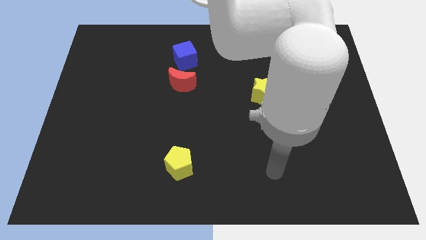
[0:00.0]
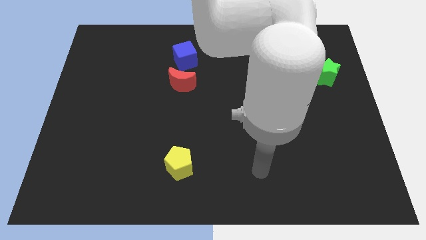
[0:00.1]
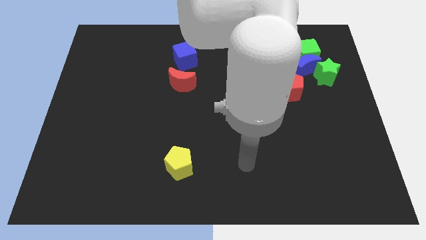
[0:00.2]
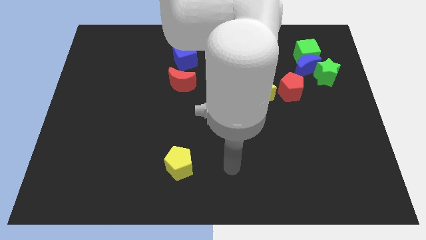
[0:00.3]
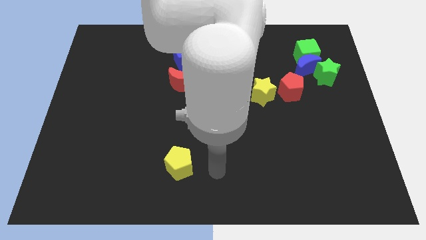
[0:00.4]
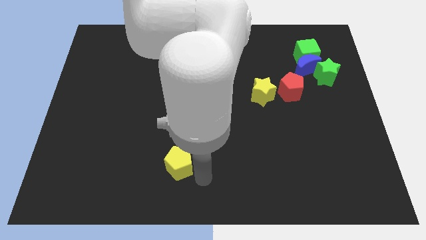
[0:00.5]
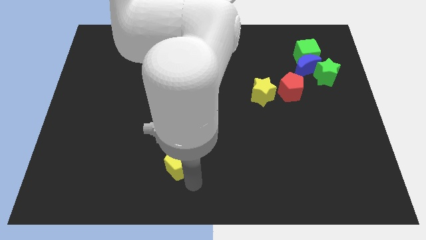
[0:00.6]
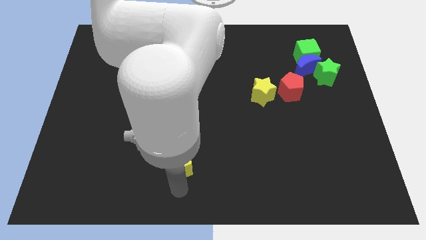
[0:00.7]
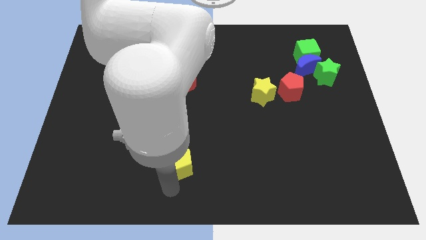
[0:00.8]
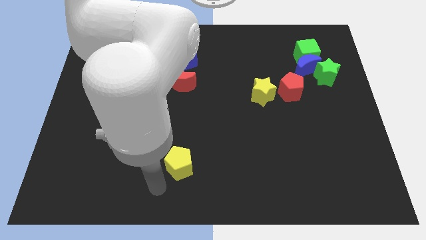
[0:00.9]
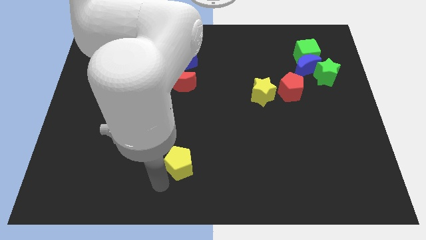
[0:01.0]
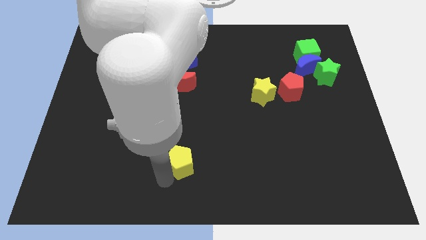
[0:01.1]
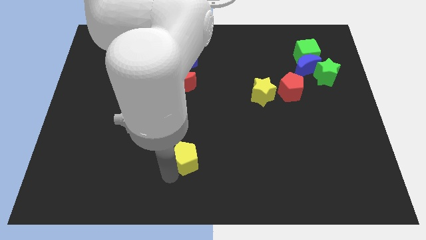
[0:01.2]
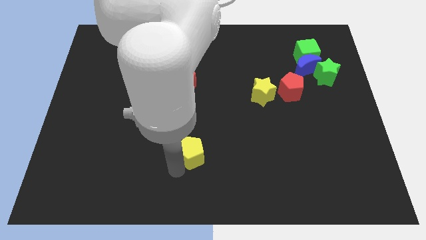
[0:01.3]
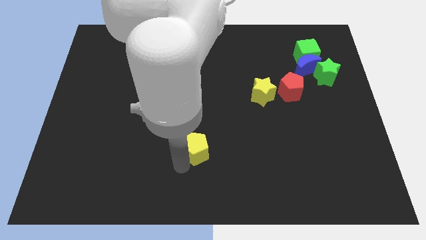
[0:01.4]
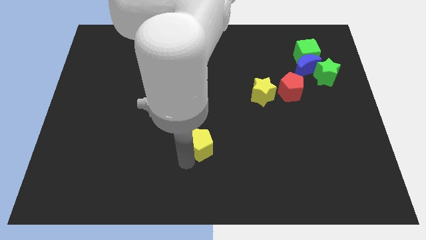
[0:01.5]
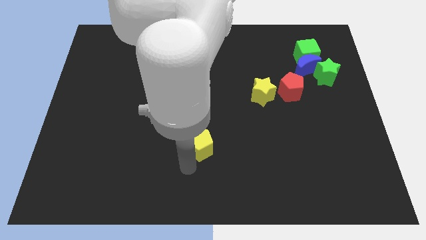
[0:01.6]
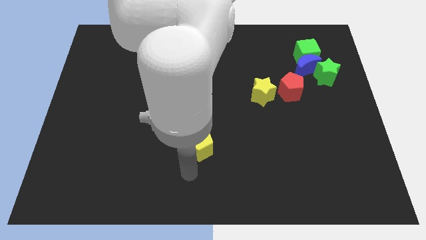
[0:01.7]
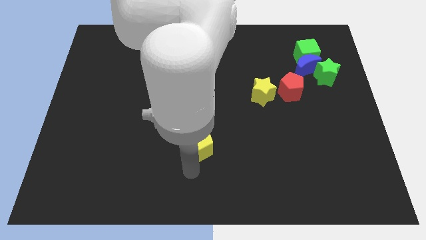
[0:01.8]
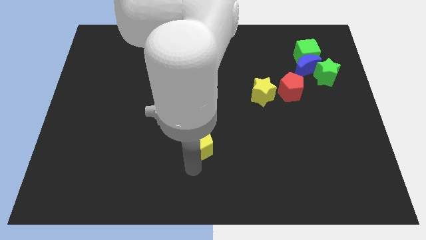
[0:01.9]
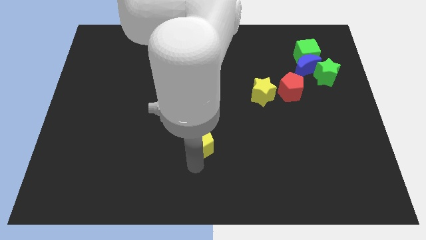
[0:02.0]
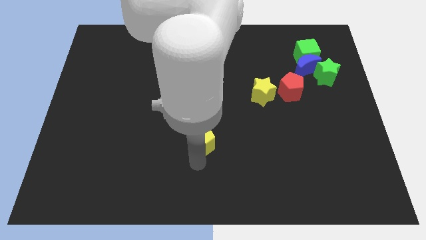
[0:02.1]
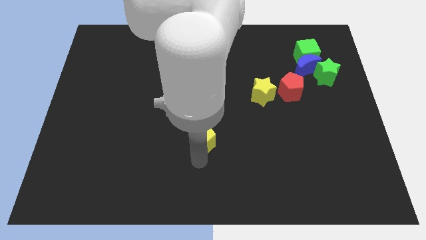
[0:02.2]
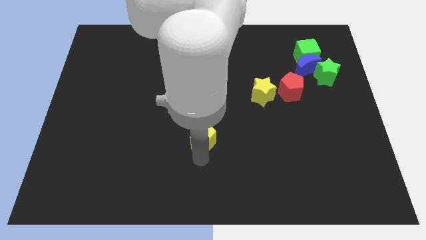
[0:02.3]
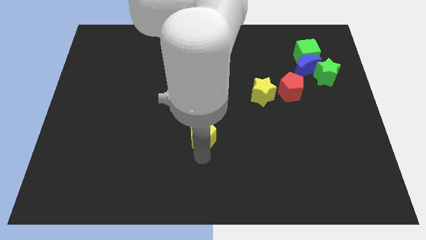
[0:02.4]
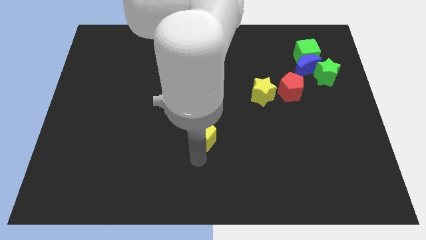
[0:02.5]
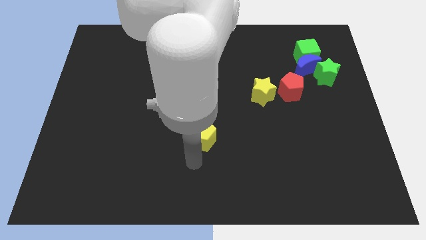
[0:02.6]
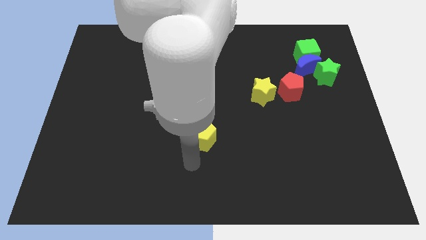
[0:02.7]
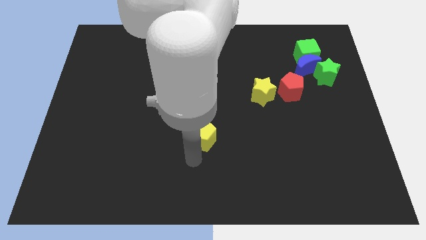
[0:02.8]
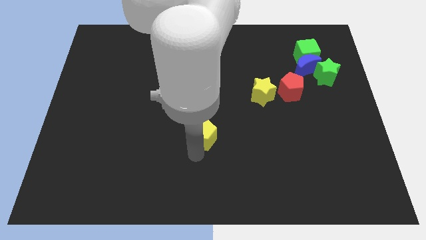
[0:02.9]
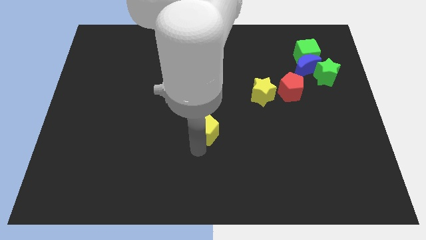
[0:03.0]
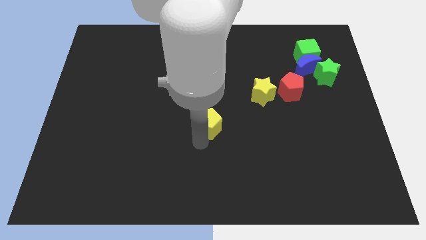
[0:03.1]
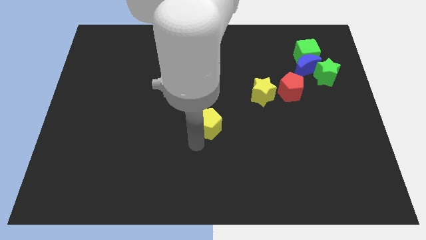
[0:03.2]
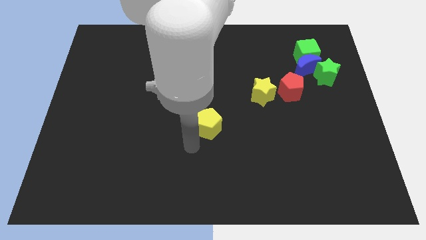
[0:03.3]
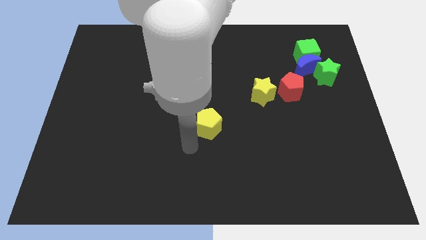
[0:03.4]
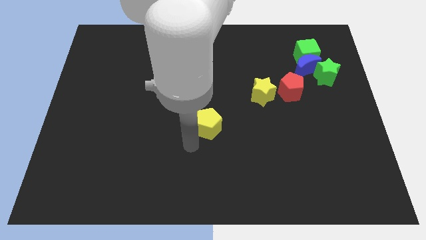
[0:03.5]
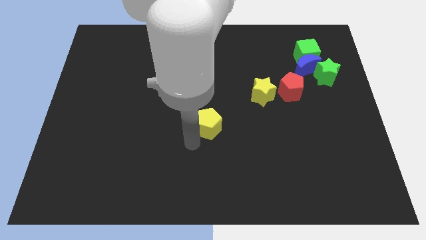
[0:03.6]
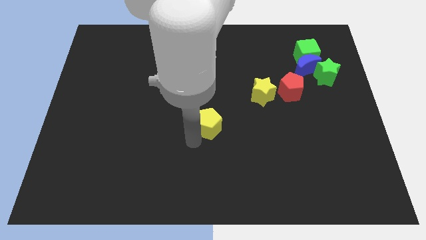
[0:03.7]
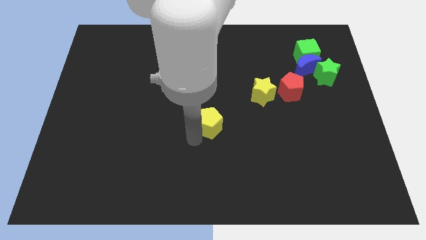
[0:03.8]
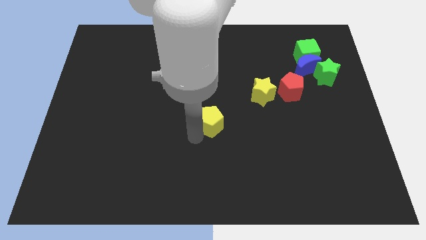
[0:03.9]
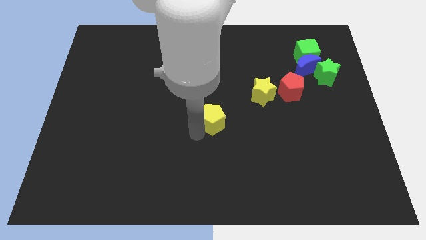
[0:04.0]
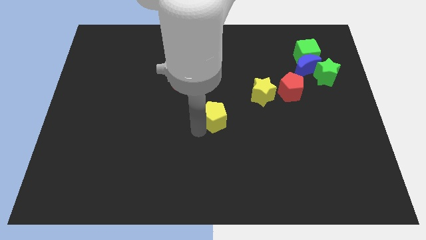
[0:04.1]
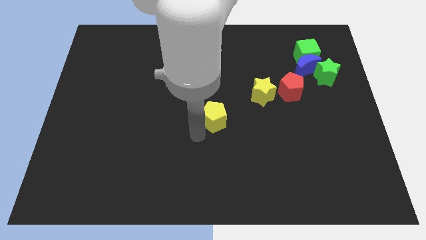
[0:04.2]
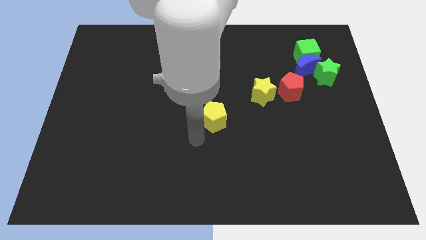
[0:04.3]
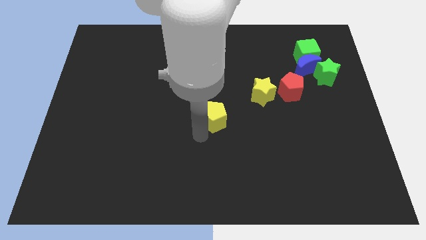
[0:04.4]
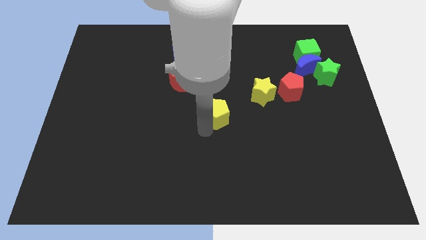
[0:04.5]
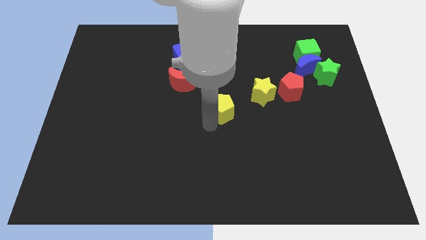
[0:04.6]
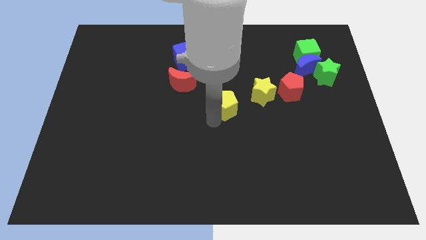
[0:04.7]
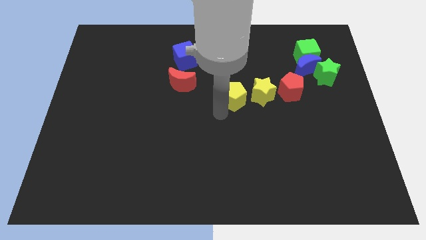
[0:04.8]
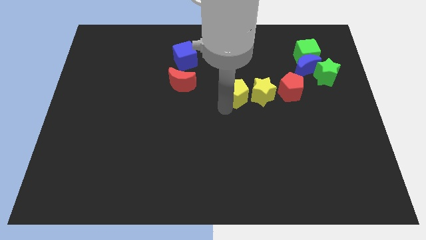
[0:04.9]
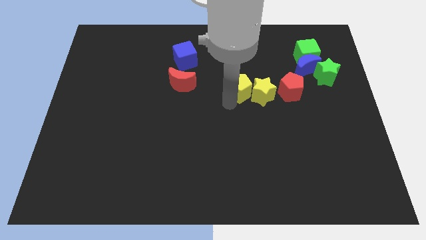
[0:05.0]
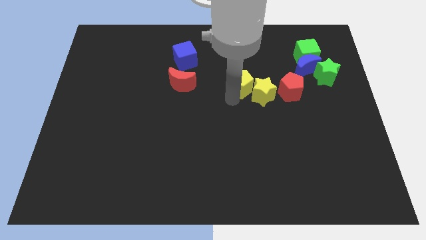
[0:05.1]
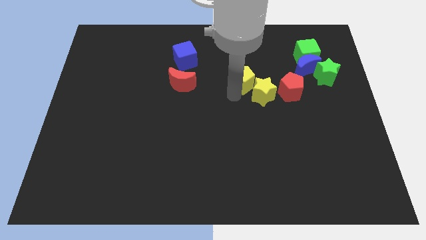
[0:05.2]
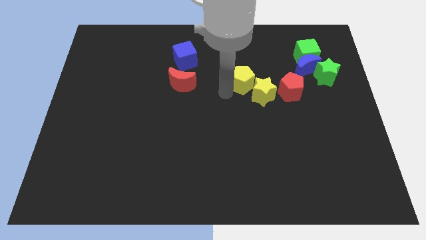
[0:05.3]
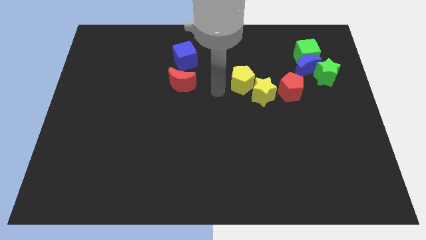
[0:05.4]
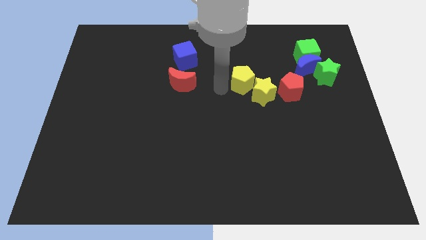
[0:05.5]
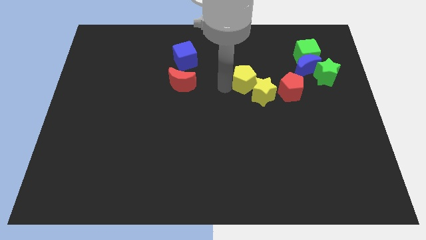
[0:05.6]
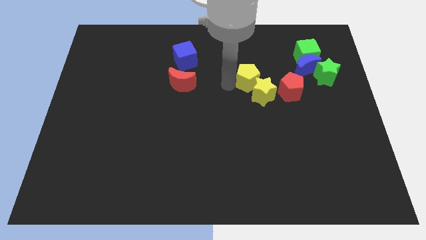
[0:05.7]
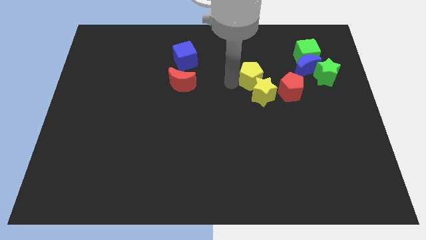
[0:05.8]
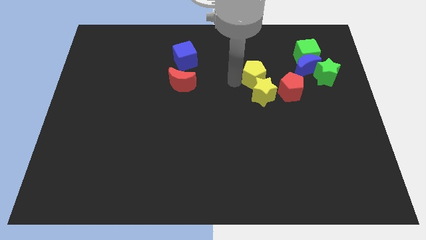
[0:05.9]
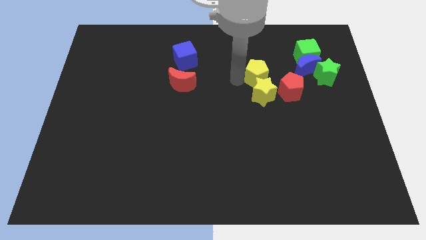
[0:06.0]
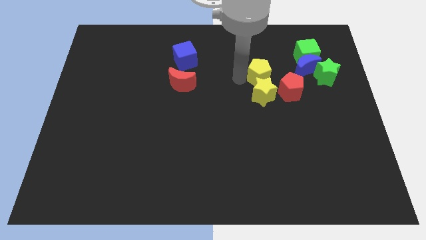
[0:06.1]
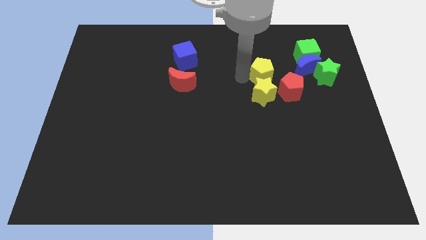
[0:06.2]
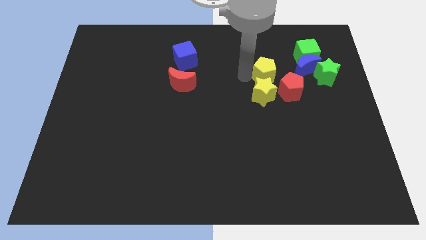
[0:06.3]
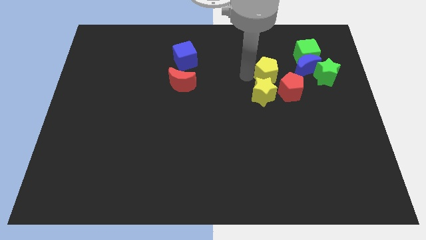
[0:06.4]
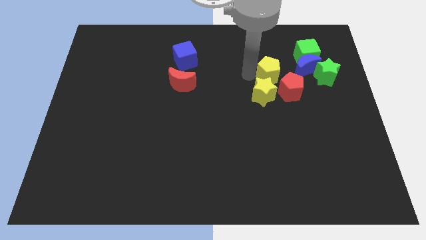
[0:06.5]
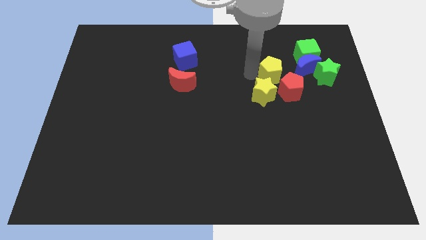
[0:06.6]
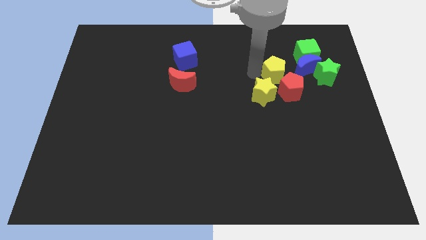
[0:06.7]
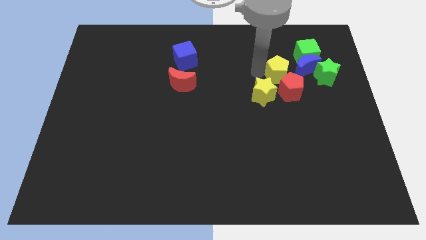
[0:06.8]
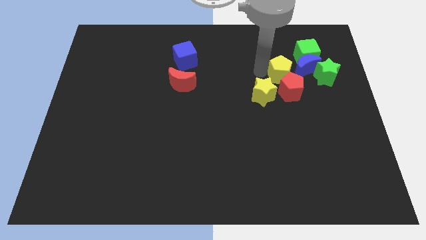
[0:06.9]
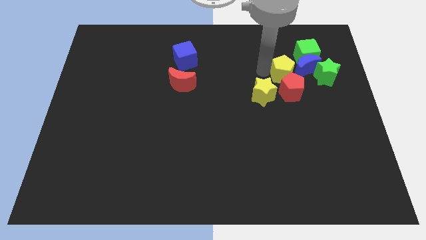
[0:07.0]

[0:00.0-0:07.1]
move the yellow pentagon towards the blue moon
